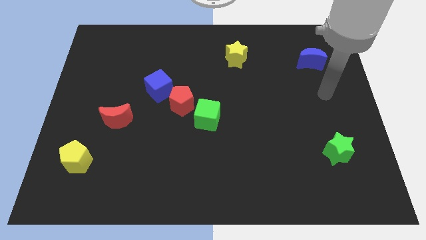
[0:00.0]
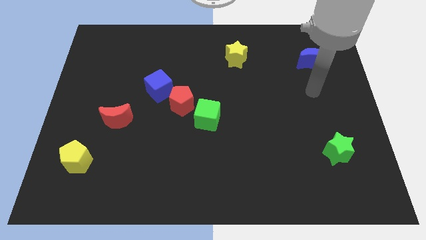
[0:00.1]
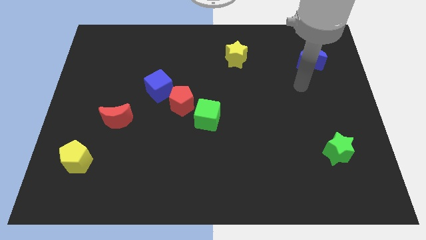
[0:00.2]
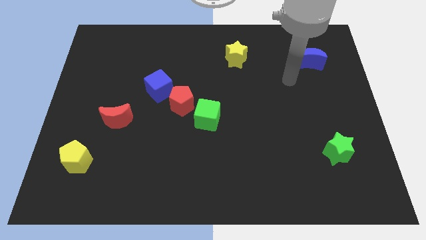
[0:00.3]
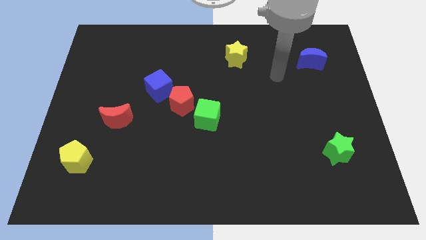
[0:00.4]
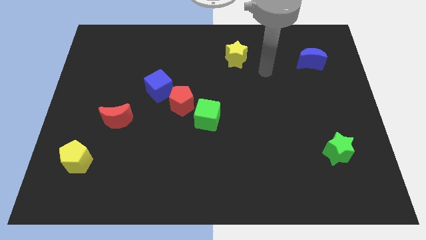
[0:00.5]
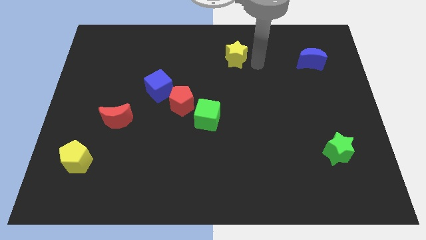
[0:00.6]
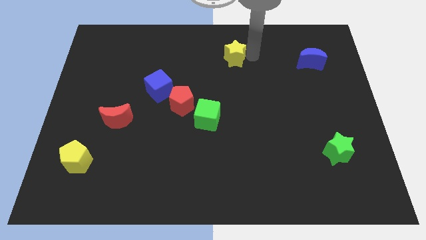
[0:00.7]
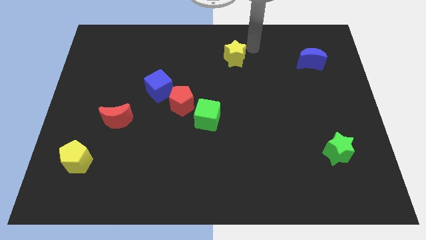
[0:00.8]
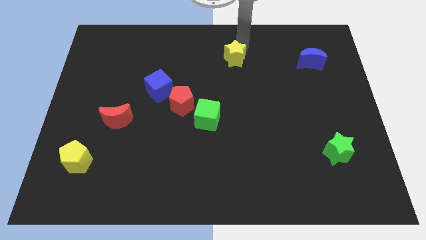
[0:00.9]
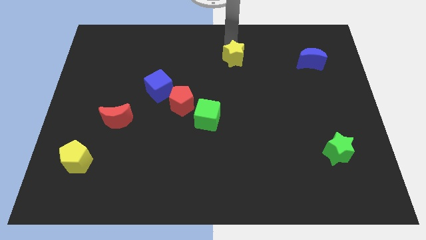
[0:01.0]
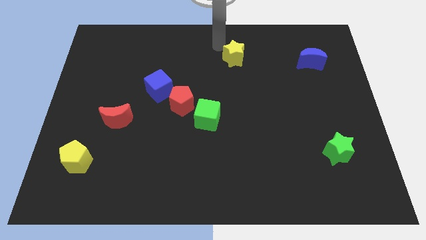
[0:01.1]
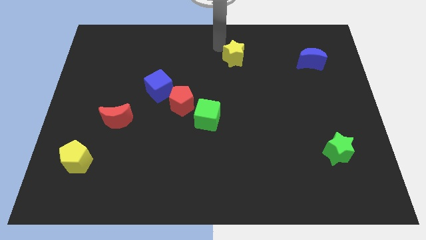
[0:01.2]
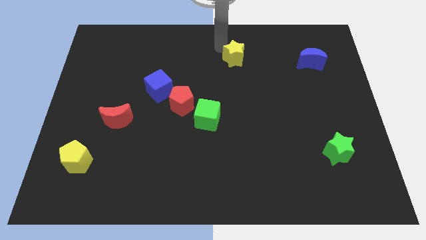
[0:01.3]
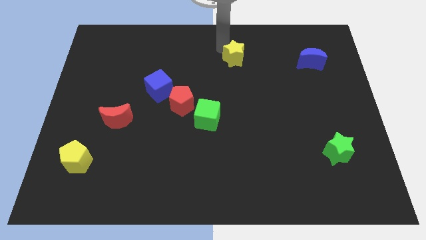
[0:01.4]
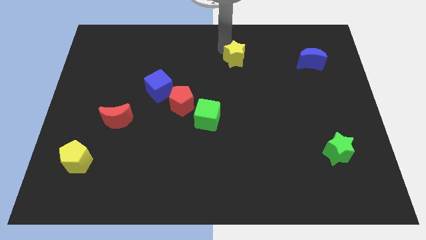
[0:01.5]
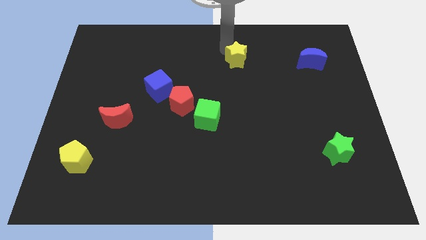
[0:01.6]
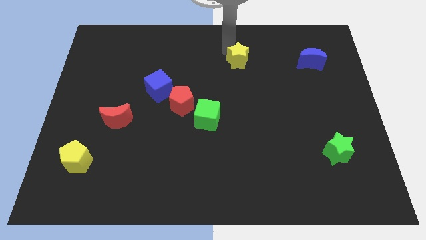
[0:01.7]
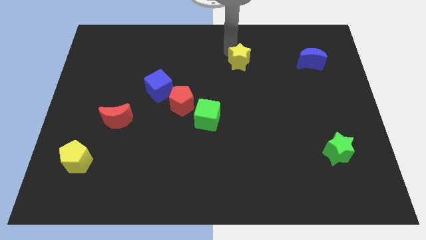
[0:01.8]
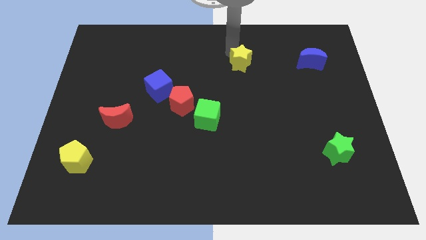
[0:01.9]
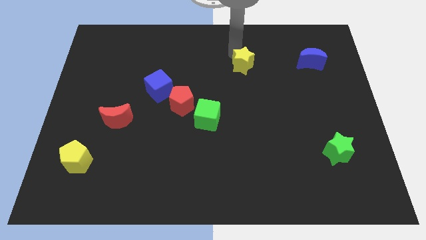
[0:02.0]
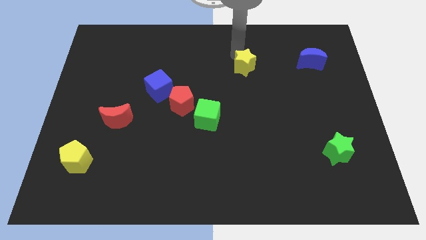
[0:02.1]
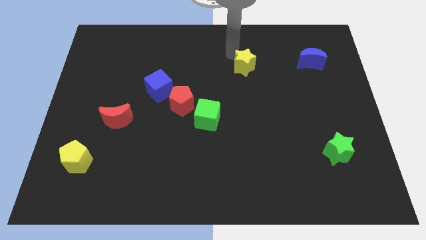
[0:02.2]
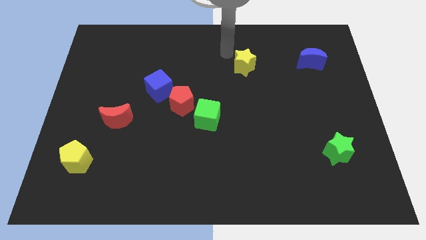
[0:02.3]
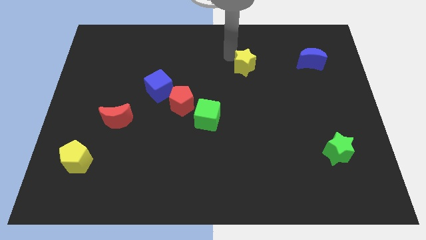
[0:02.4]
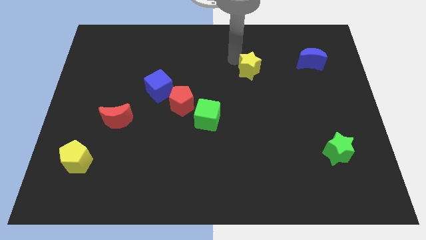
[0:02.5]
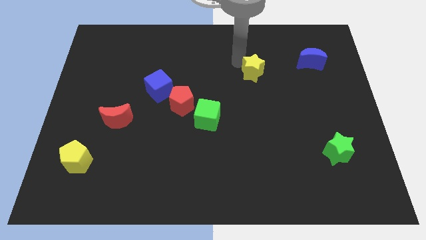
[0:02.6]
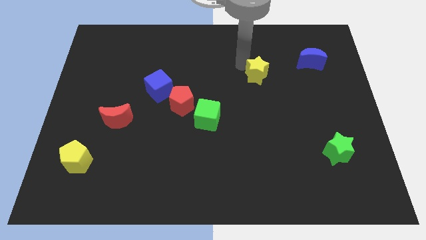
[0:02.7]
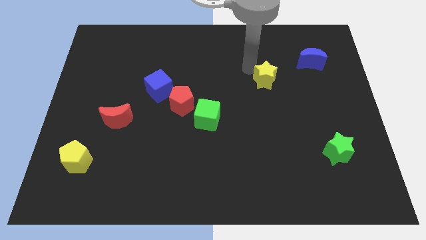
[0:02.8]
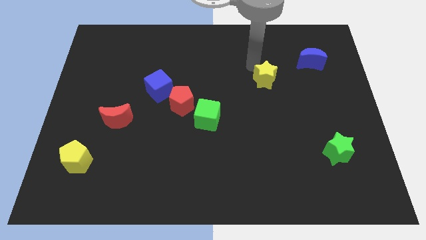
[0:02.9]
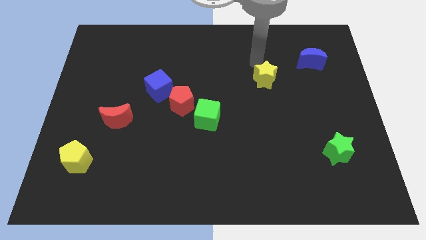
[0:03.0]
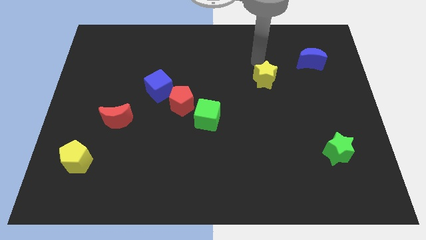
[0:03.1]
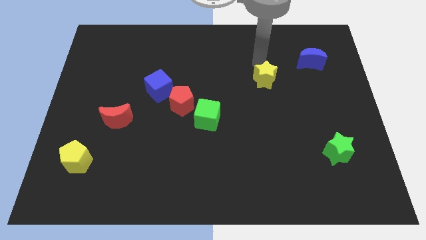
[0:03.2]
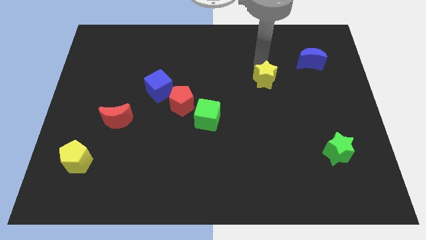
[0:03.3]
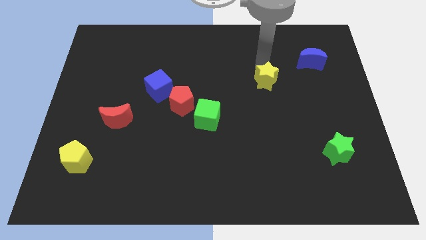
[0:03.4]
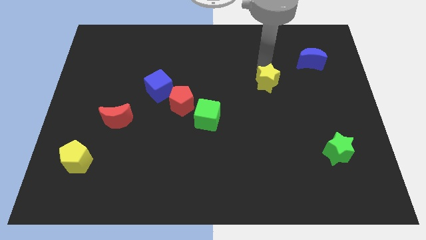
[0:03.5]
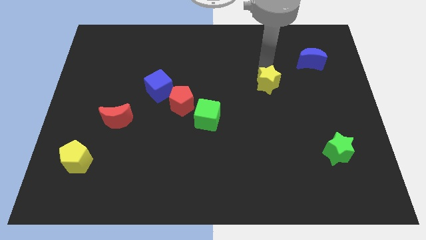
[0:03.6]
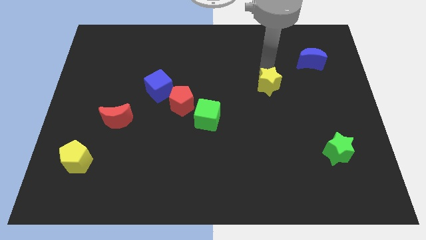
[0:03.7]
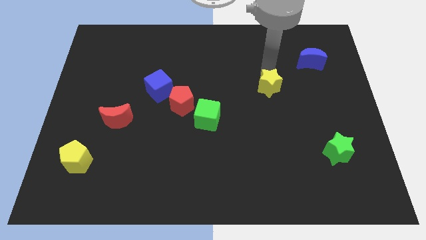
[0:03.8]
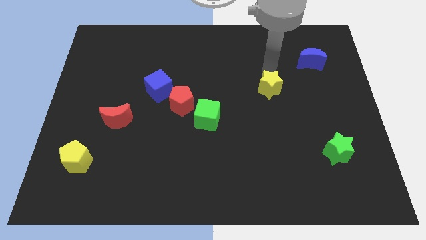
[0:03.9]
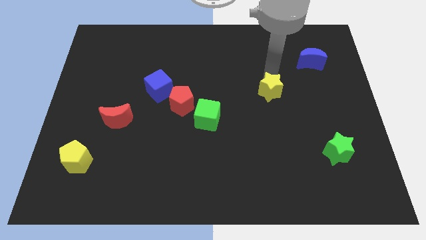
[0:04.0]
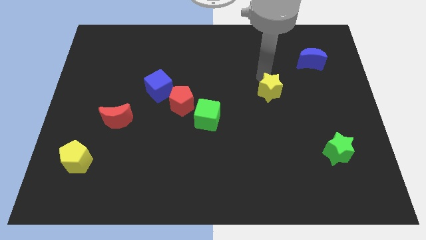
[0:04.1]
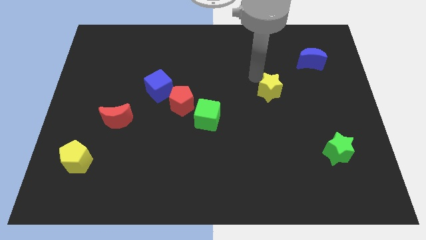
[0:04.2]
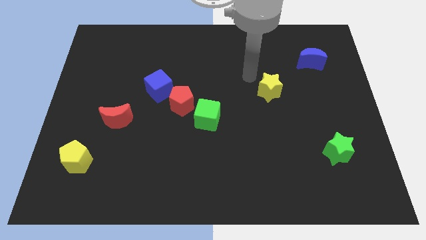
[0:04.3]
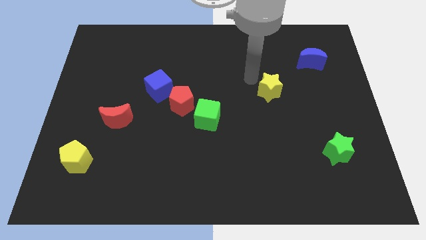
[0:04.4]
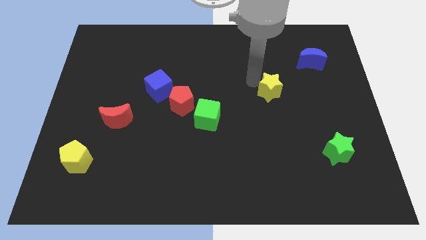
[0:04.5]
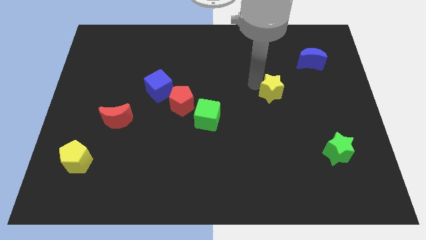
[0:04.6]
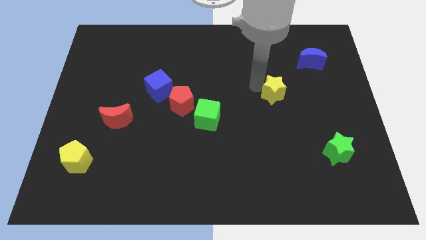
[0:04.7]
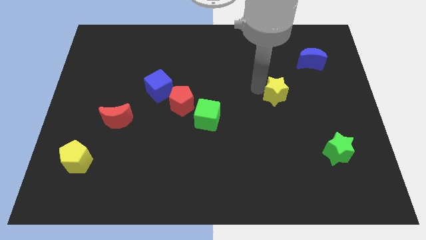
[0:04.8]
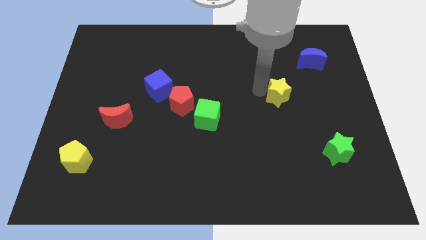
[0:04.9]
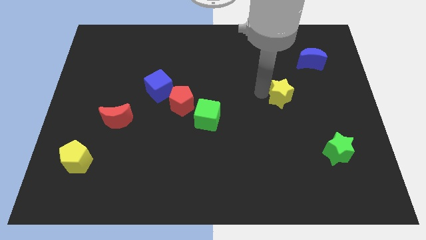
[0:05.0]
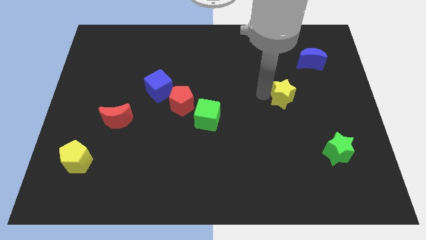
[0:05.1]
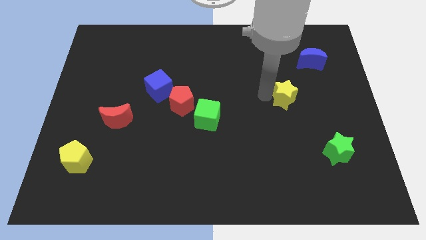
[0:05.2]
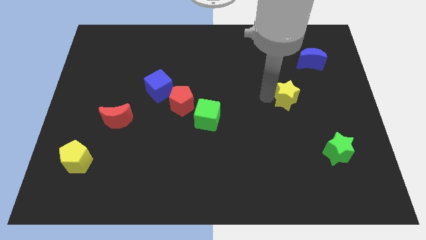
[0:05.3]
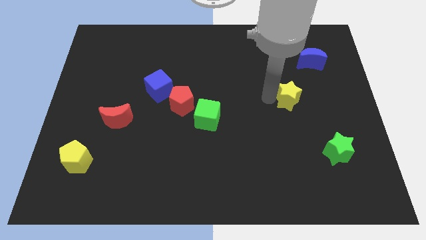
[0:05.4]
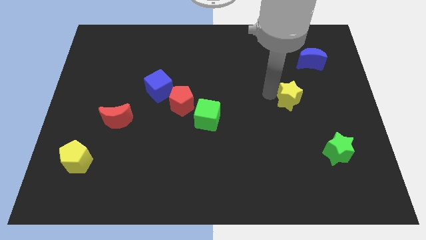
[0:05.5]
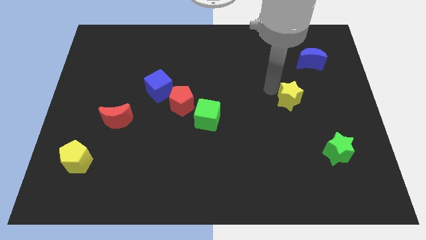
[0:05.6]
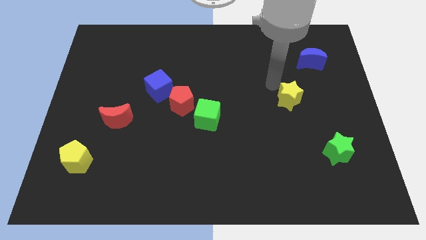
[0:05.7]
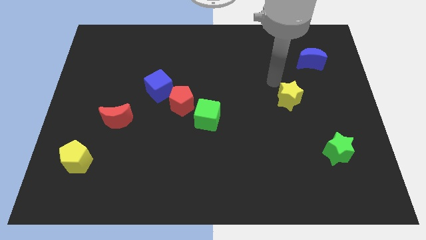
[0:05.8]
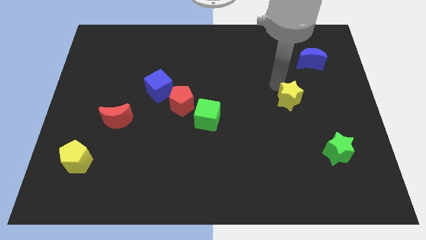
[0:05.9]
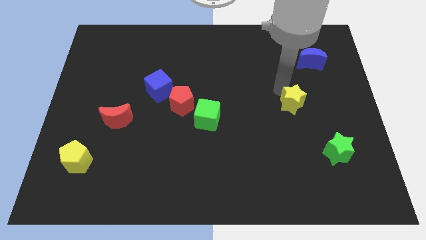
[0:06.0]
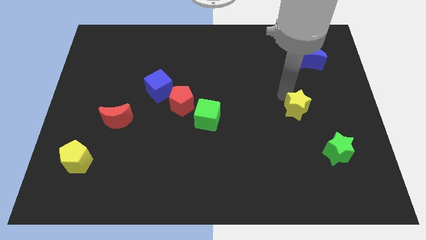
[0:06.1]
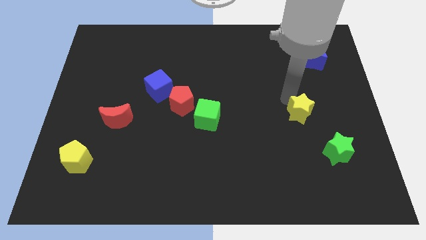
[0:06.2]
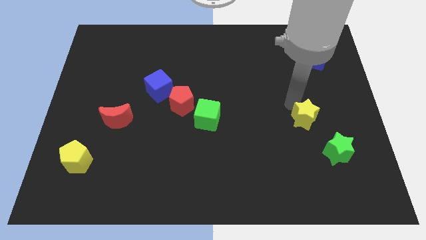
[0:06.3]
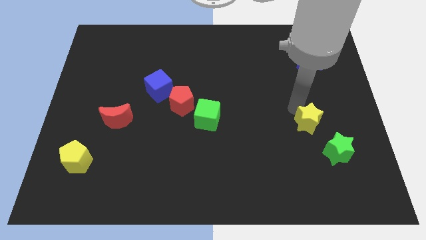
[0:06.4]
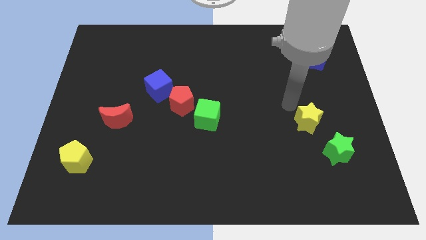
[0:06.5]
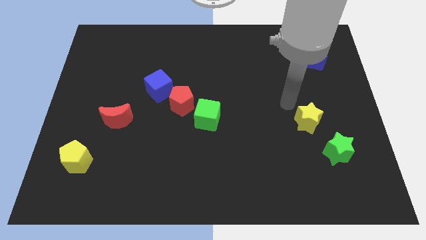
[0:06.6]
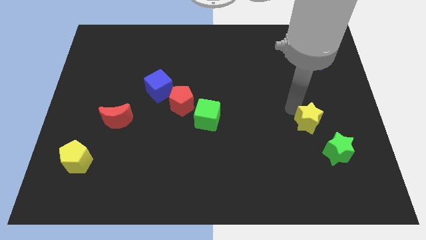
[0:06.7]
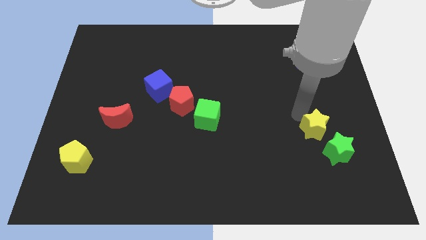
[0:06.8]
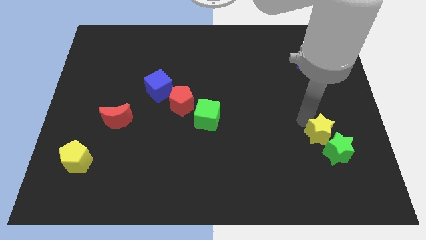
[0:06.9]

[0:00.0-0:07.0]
push the yellow star towards the green star
